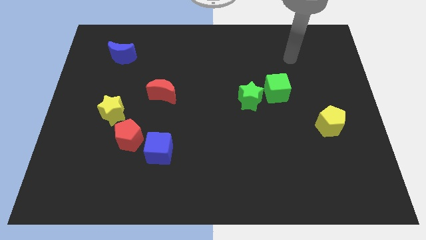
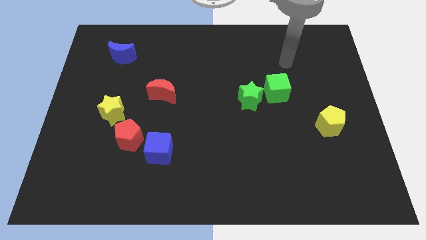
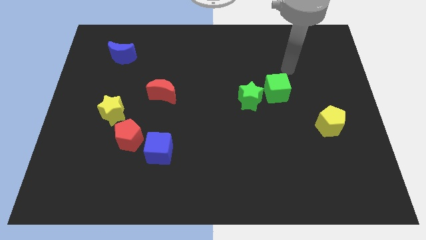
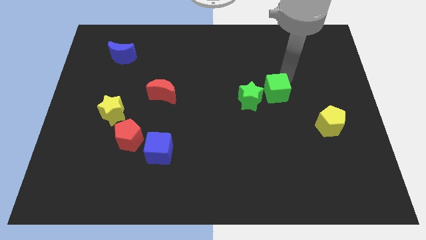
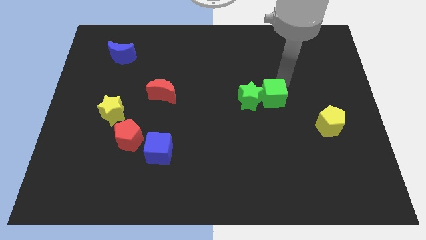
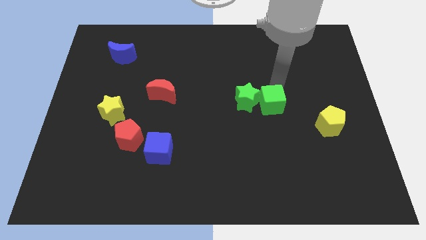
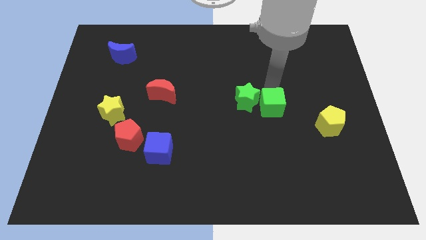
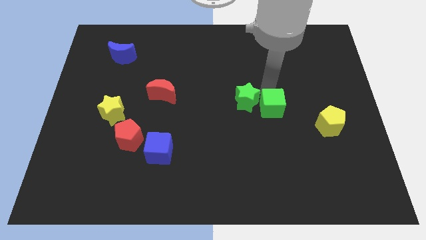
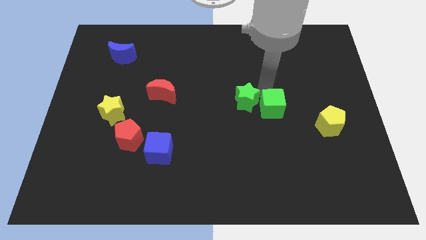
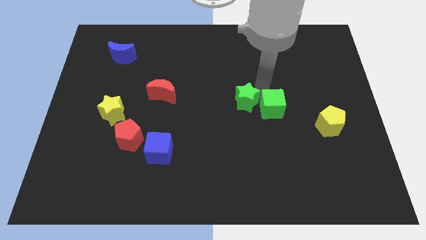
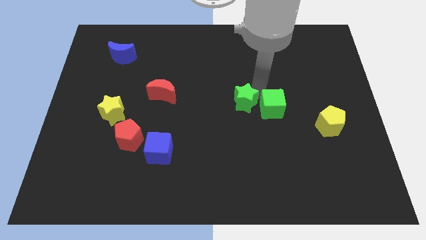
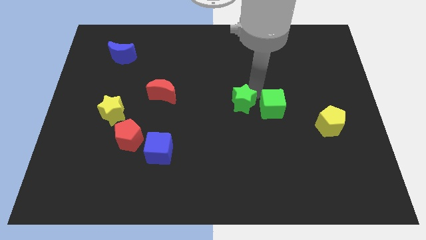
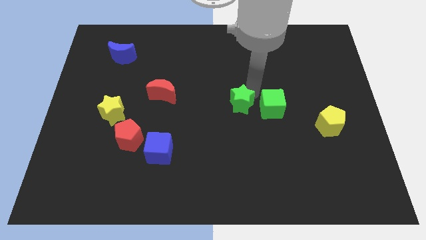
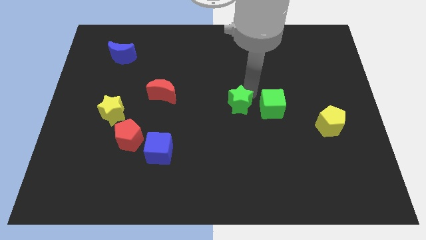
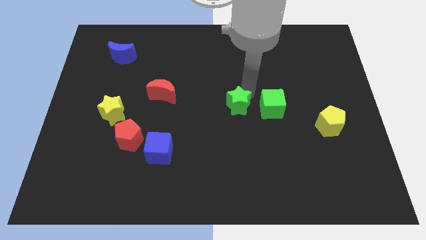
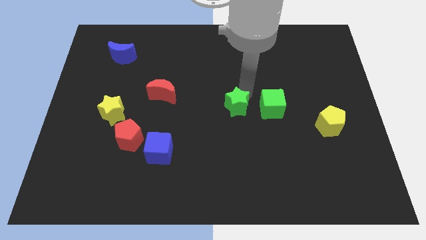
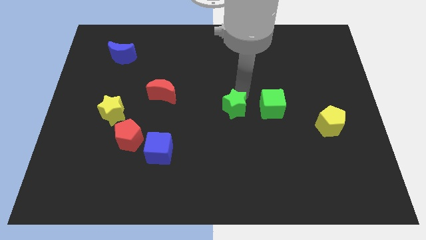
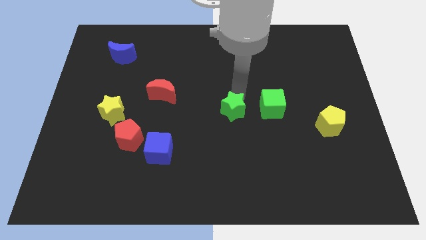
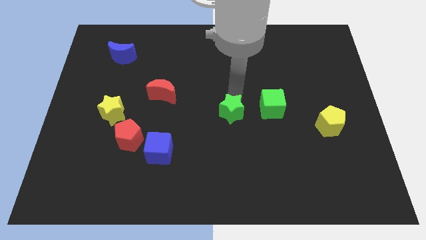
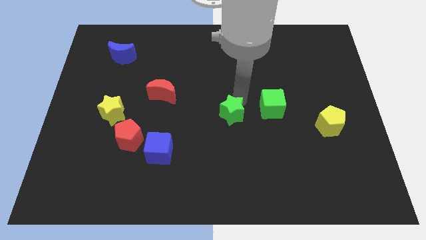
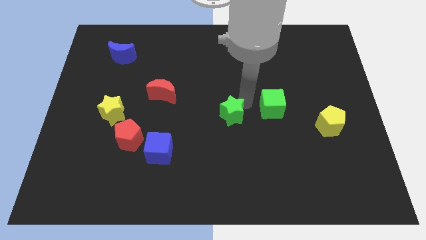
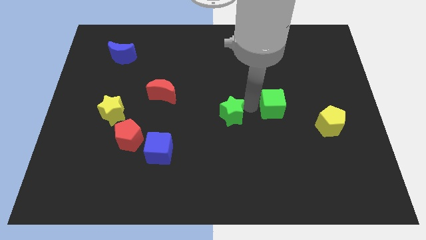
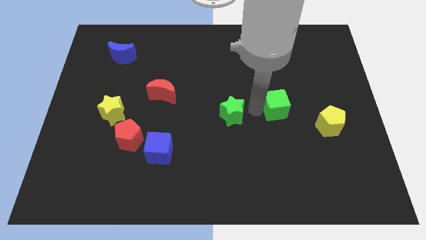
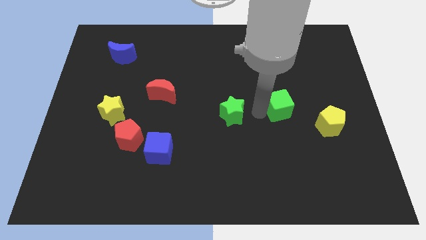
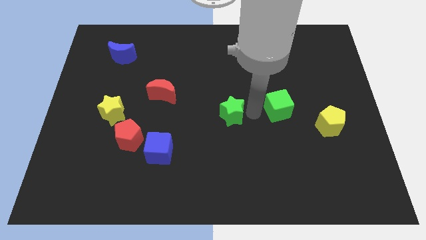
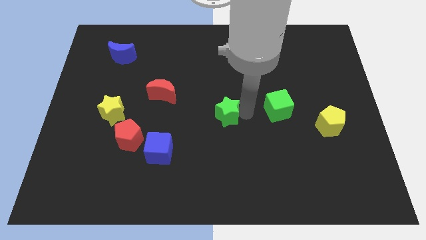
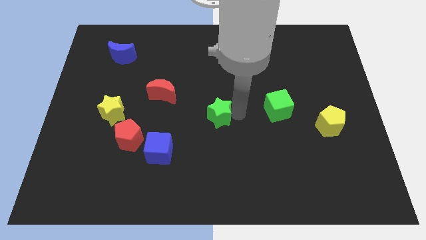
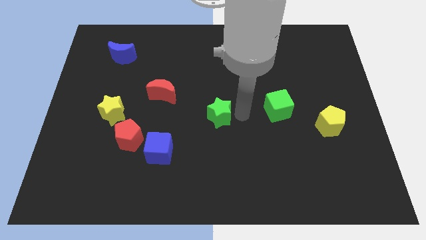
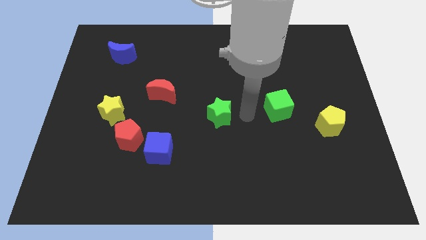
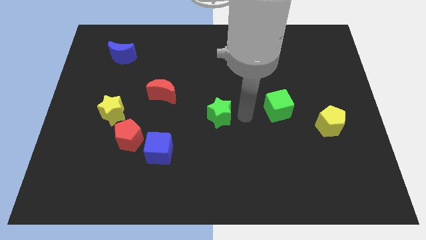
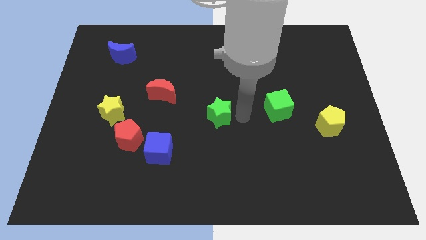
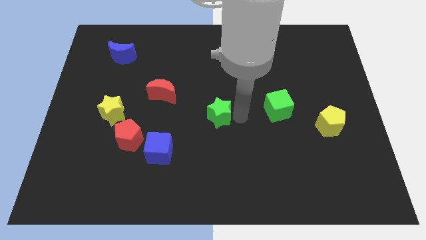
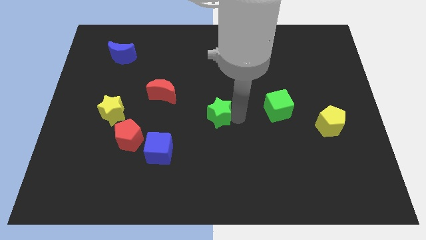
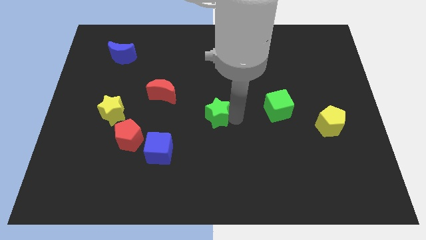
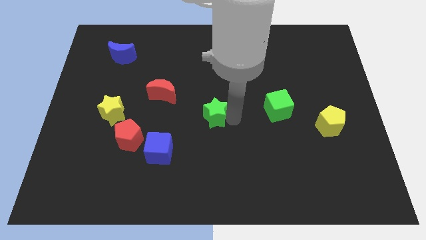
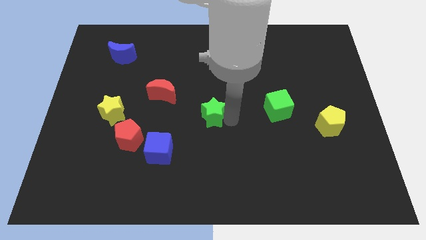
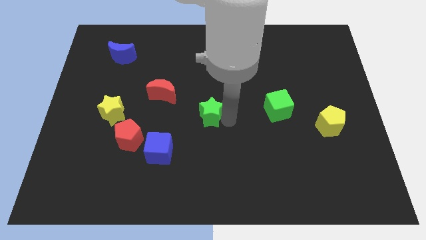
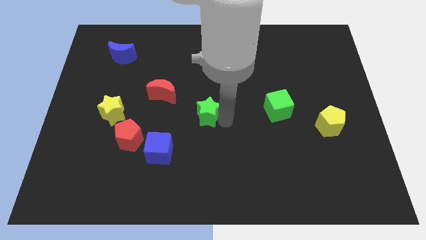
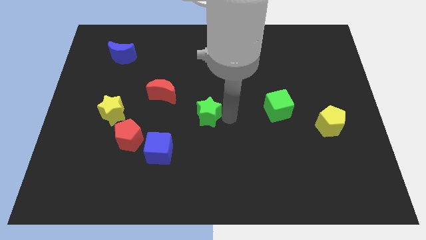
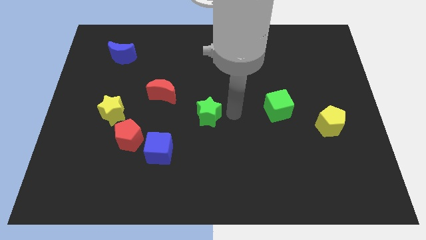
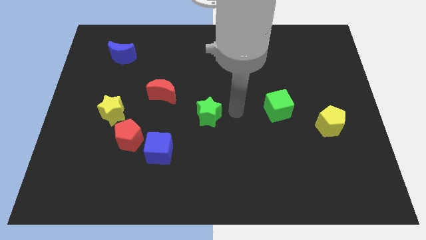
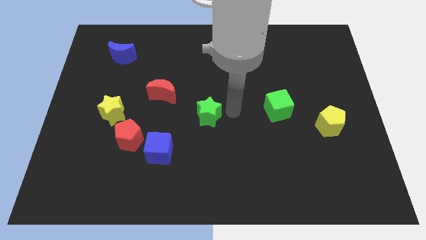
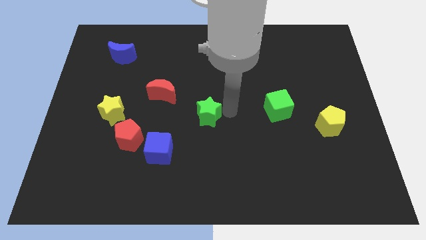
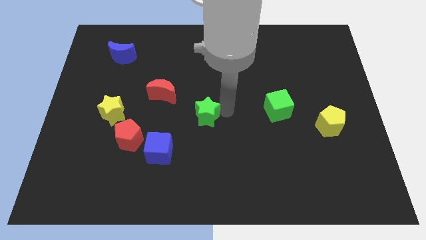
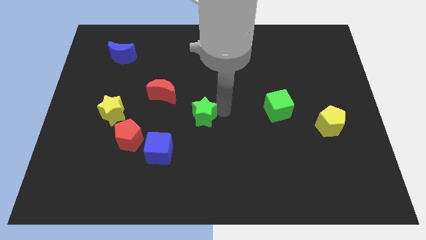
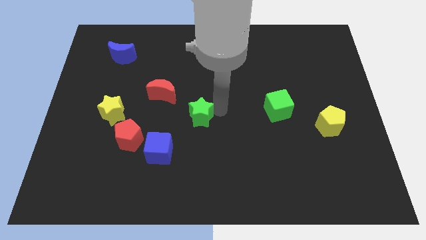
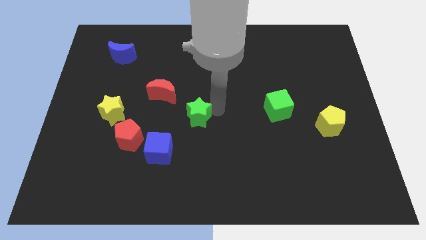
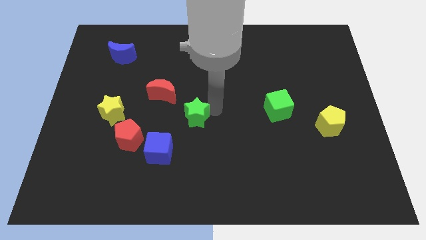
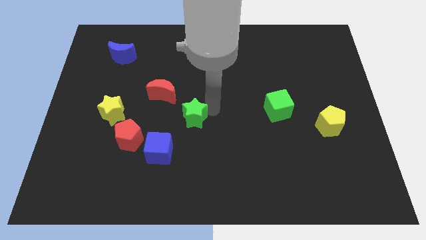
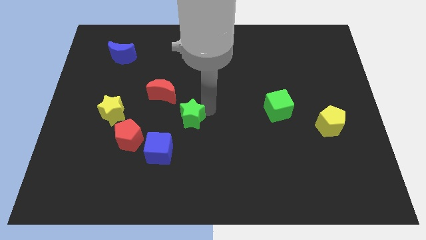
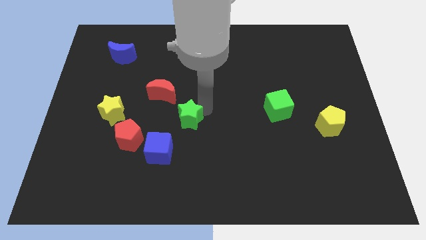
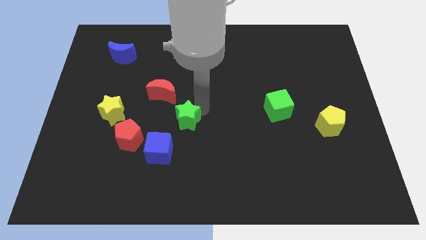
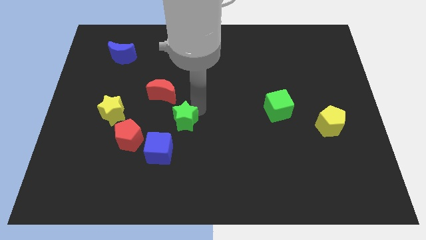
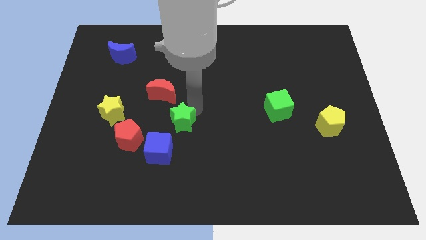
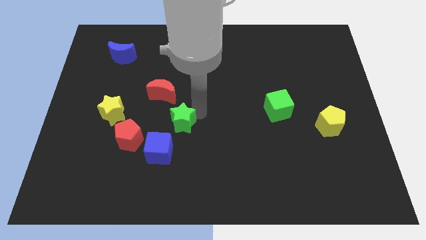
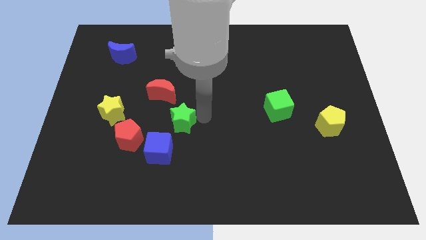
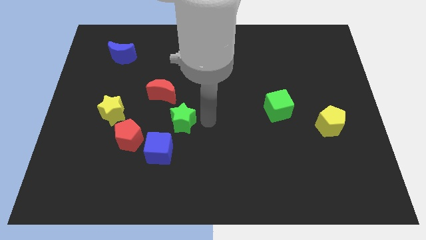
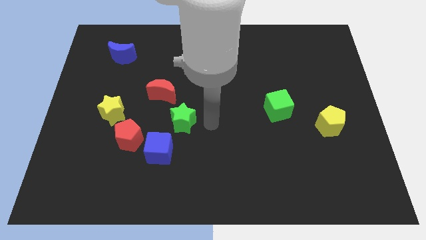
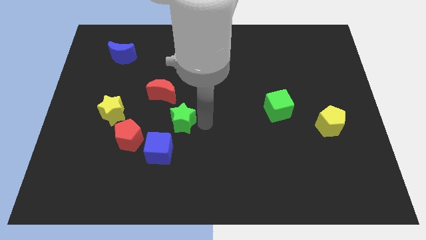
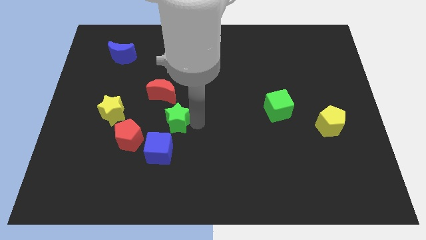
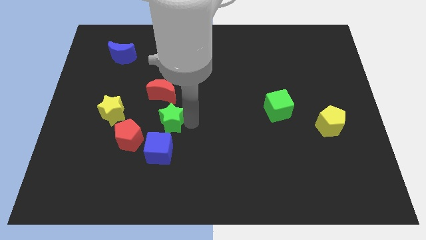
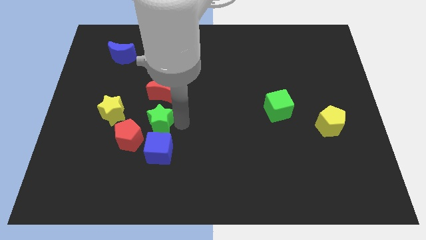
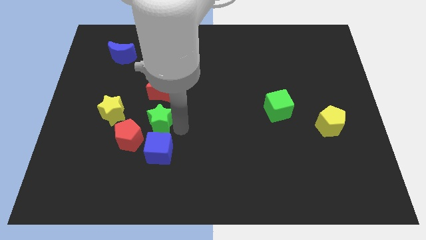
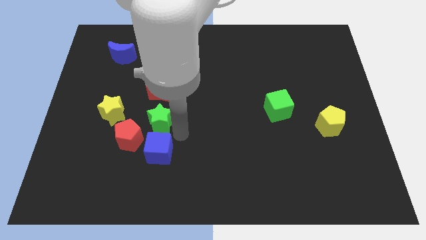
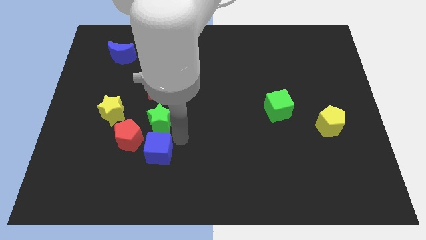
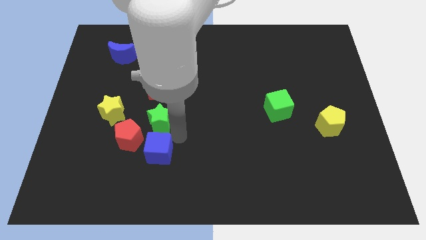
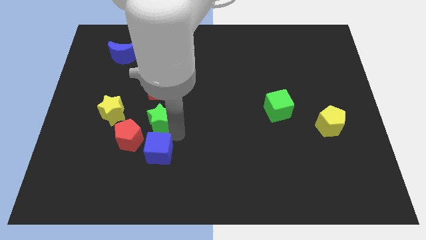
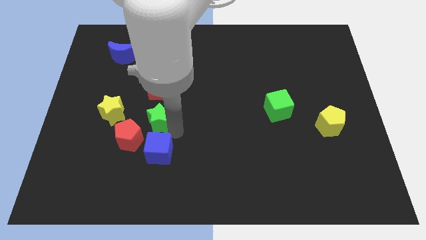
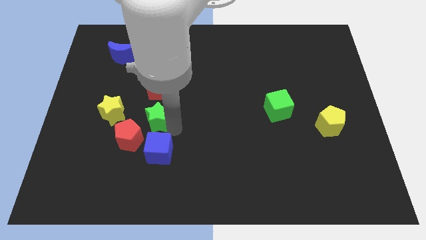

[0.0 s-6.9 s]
slide the green star left

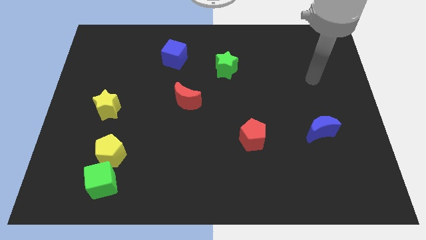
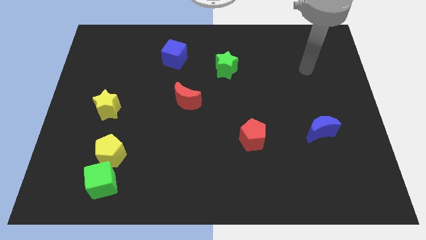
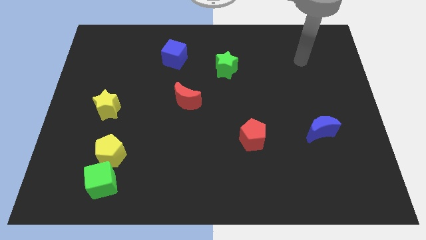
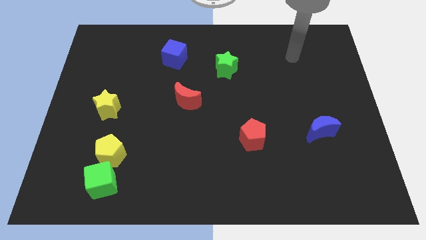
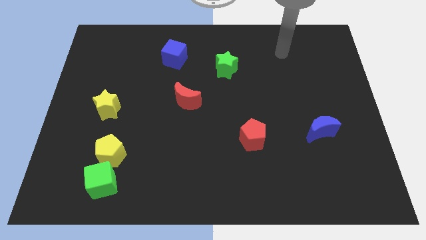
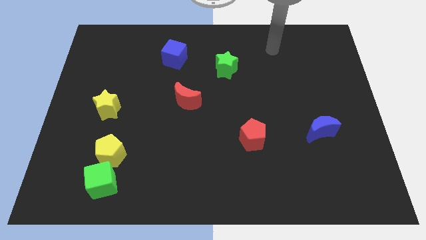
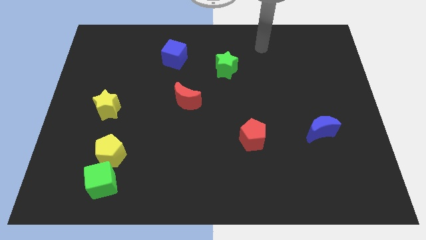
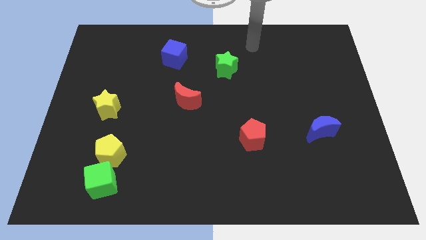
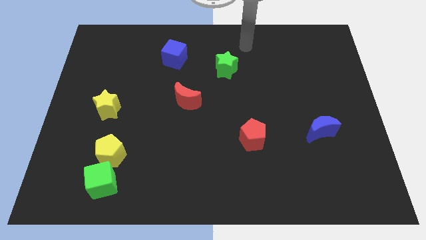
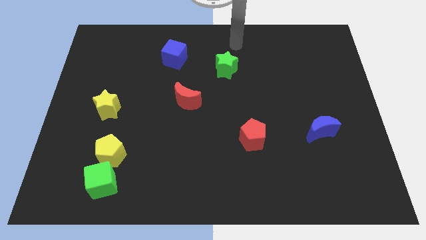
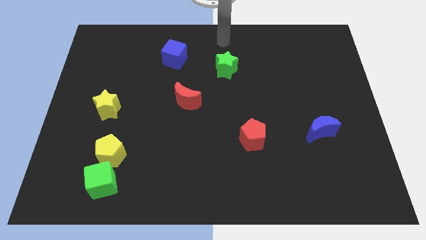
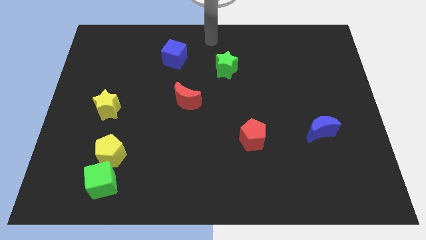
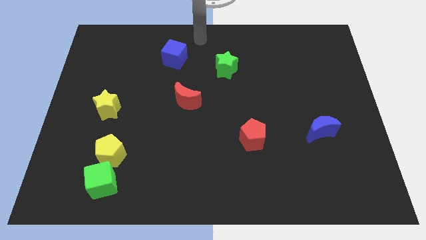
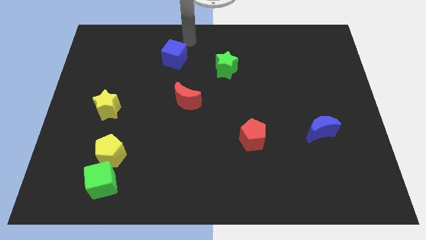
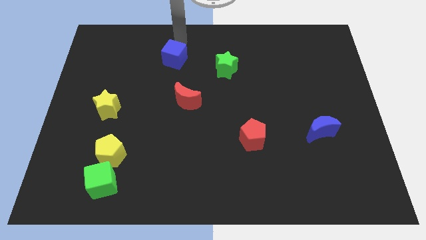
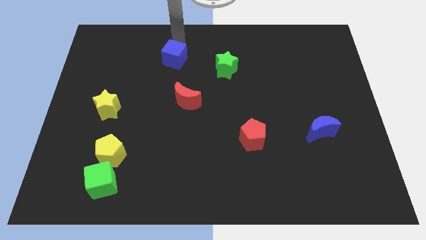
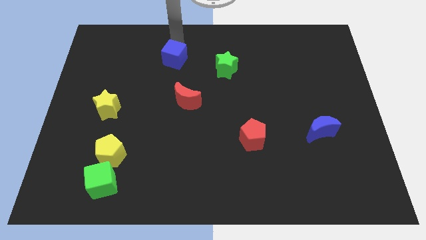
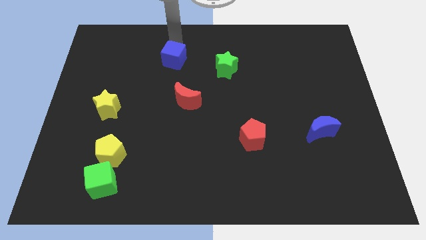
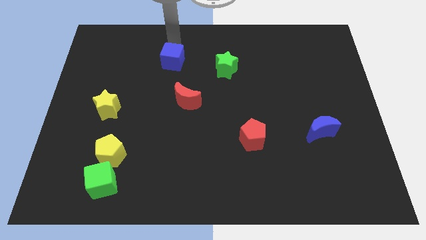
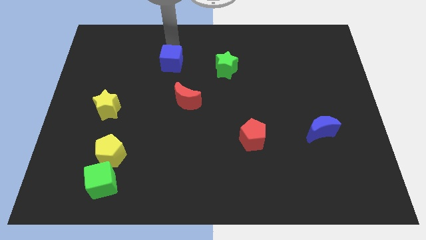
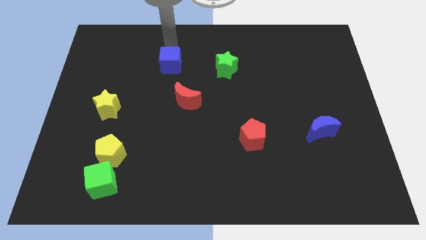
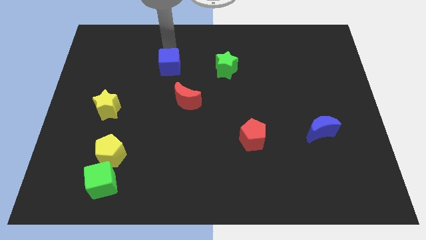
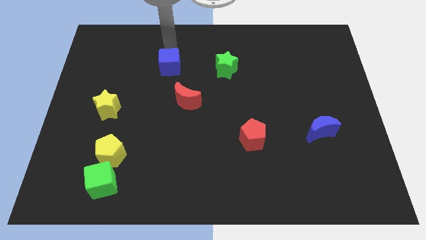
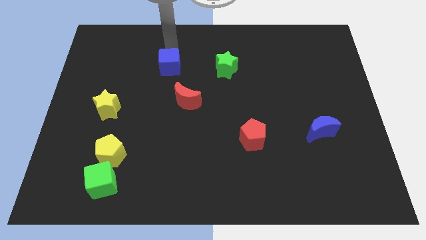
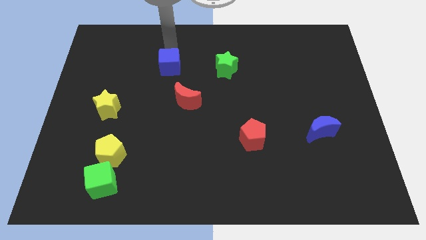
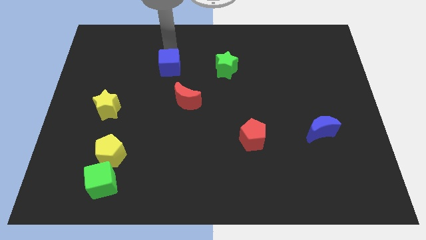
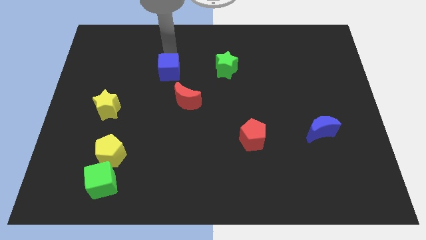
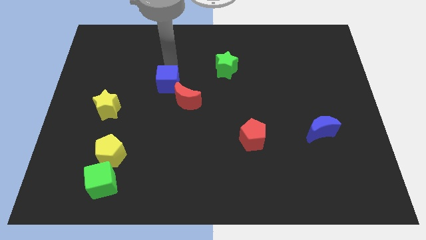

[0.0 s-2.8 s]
slide the blue cube a little downwards
